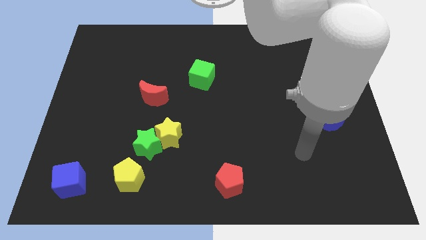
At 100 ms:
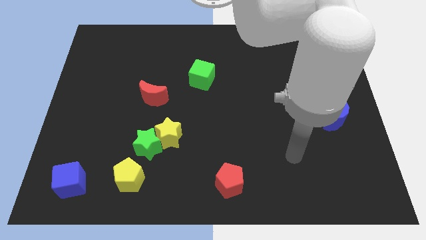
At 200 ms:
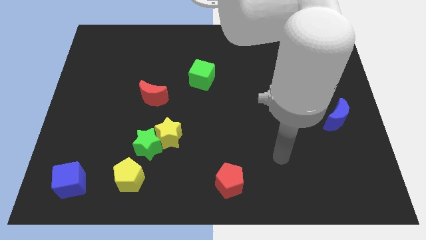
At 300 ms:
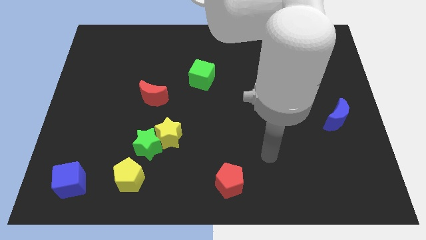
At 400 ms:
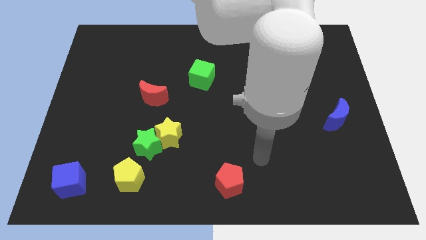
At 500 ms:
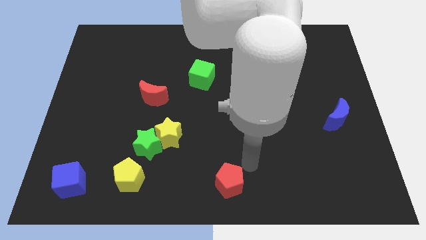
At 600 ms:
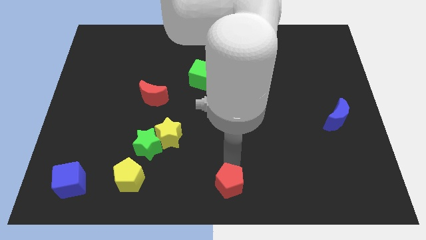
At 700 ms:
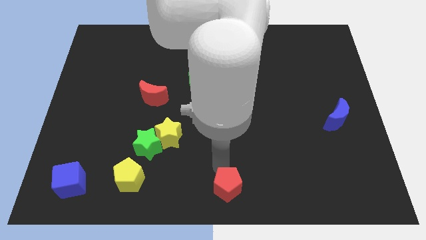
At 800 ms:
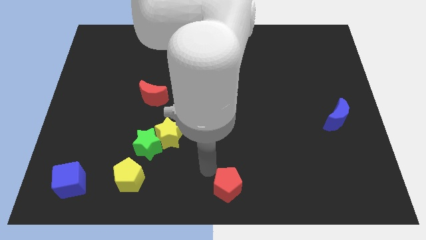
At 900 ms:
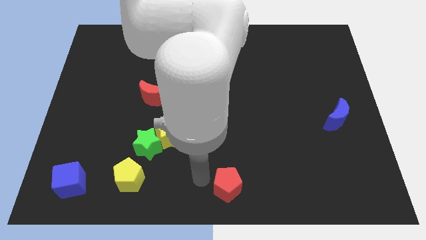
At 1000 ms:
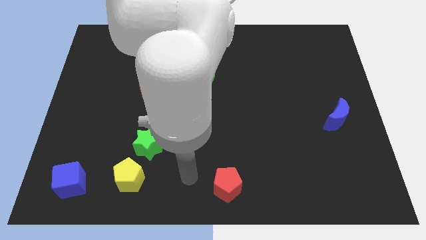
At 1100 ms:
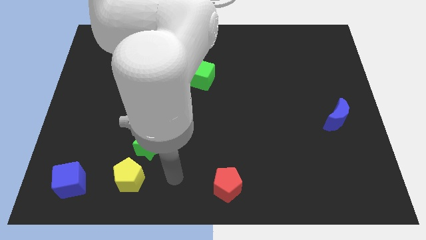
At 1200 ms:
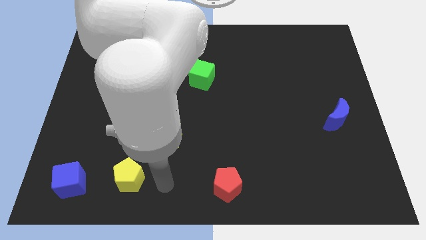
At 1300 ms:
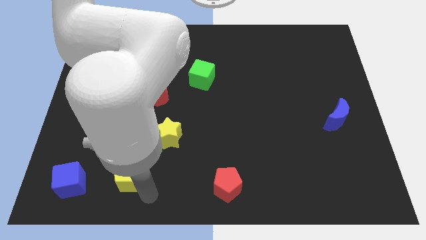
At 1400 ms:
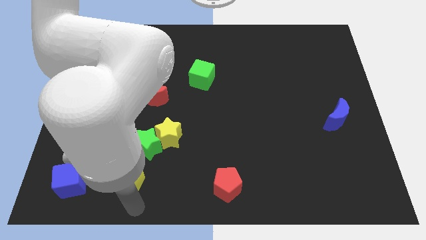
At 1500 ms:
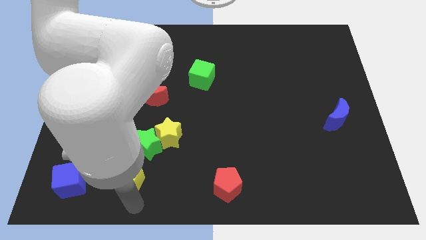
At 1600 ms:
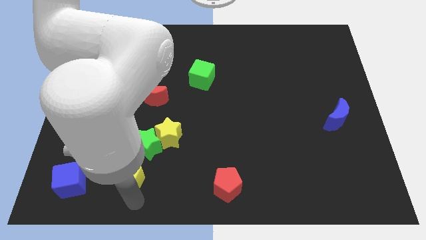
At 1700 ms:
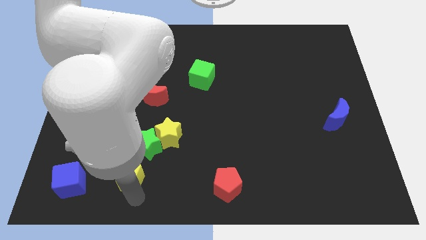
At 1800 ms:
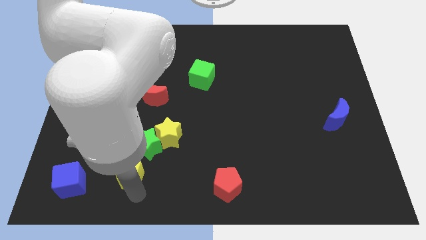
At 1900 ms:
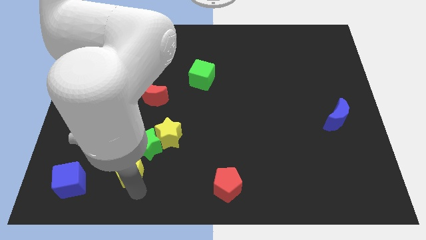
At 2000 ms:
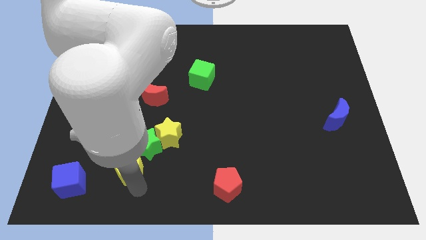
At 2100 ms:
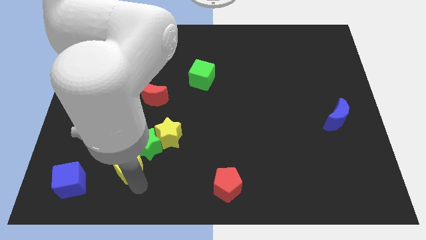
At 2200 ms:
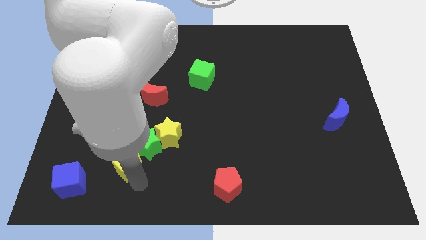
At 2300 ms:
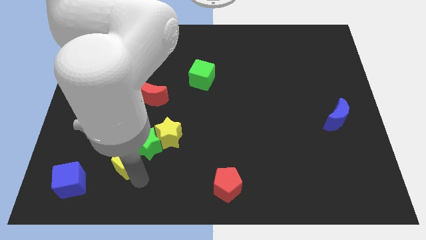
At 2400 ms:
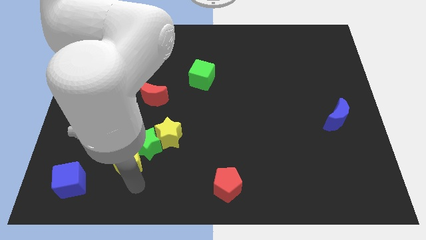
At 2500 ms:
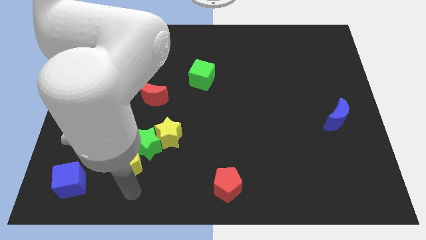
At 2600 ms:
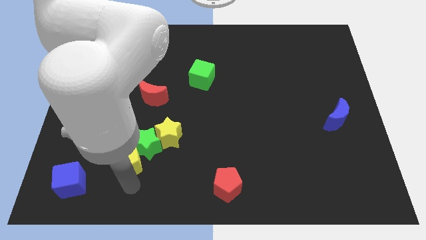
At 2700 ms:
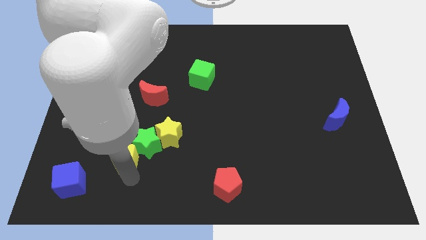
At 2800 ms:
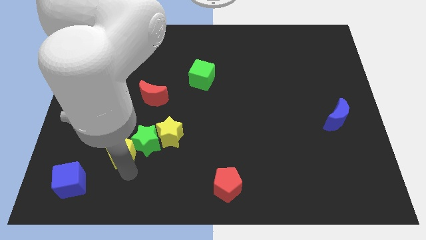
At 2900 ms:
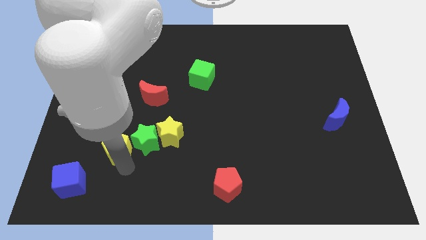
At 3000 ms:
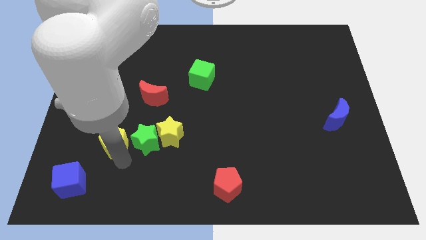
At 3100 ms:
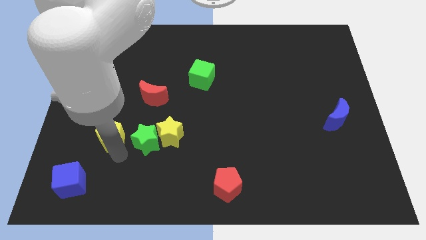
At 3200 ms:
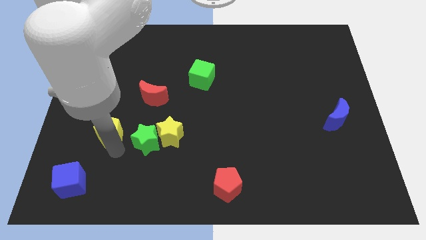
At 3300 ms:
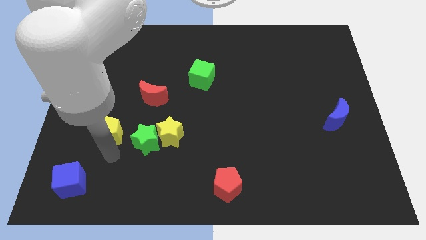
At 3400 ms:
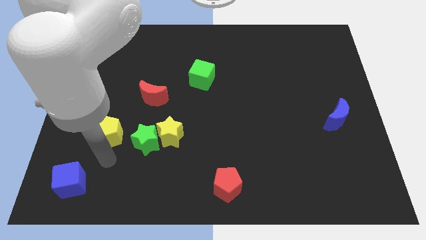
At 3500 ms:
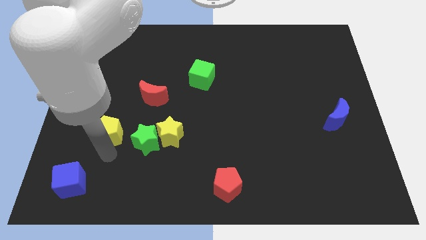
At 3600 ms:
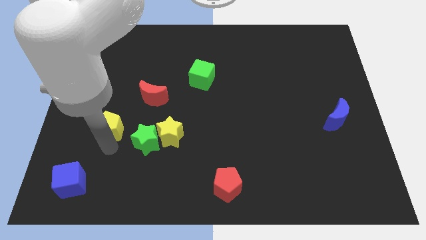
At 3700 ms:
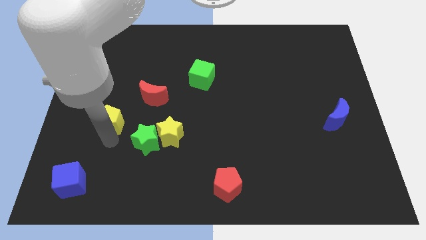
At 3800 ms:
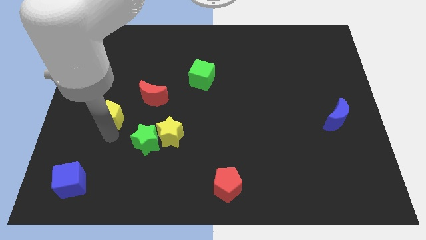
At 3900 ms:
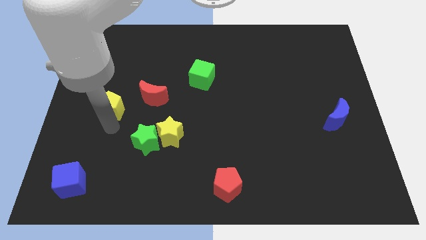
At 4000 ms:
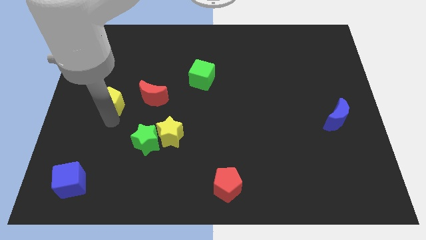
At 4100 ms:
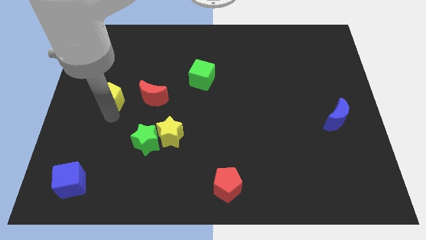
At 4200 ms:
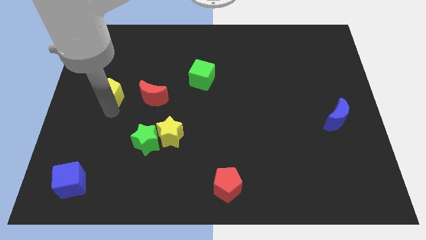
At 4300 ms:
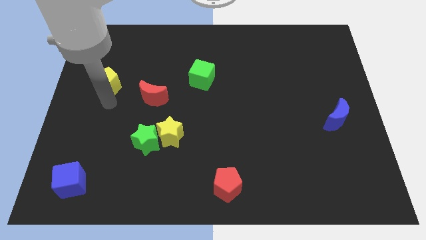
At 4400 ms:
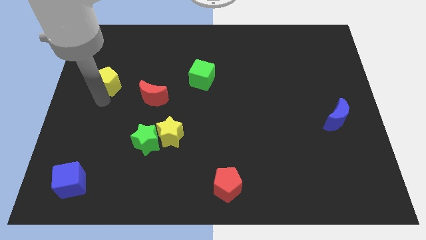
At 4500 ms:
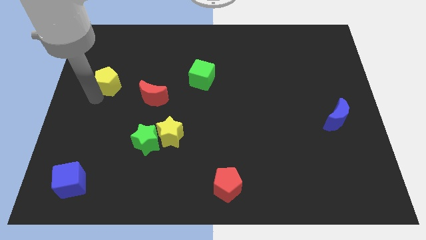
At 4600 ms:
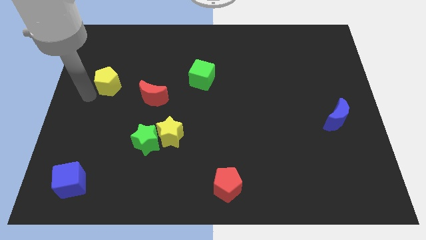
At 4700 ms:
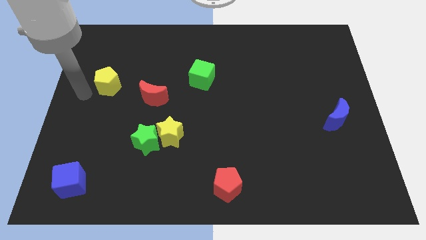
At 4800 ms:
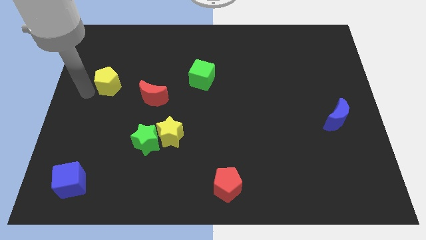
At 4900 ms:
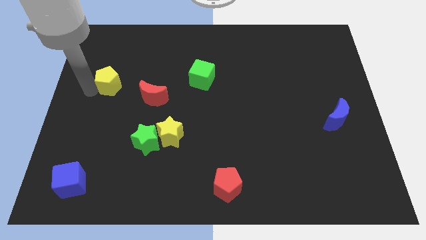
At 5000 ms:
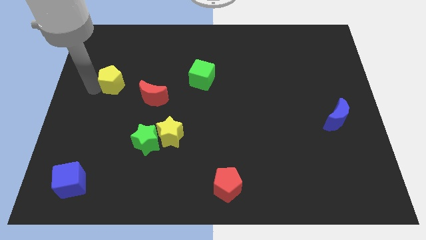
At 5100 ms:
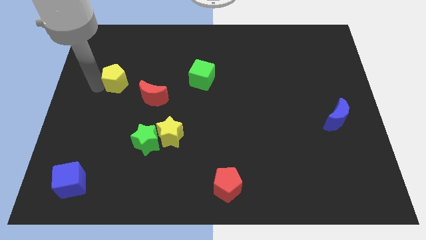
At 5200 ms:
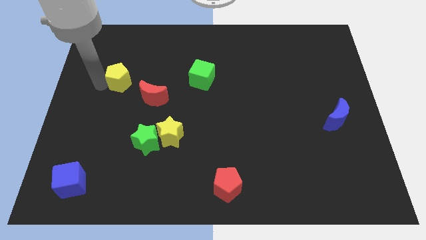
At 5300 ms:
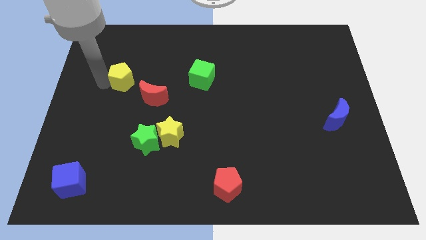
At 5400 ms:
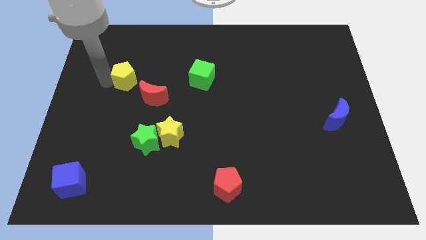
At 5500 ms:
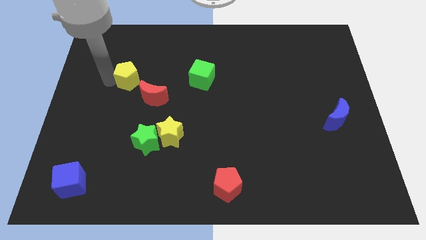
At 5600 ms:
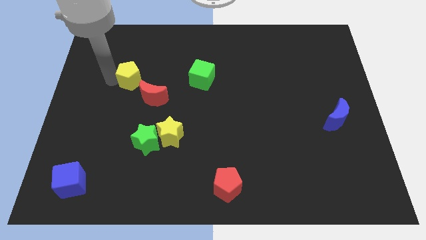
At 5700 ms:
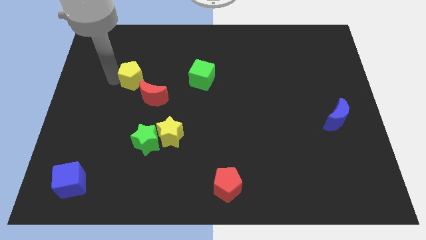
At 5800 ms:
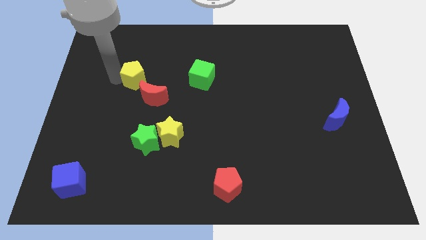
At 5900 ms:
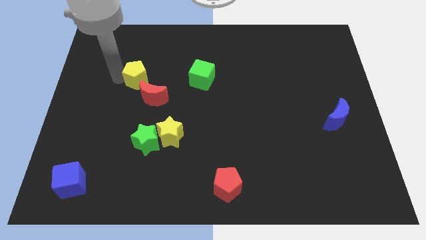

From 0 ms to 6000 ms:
put the yellow pentagon to the top side of the red moon

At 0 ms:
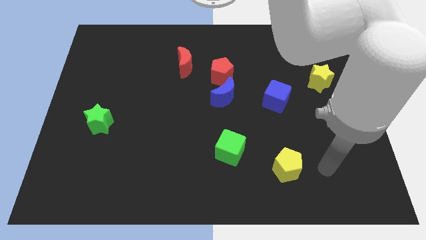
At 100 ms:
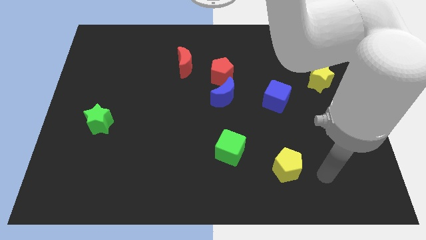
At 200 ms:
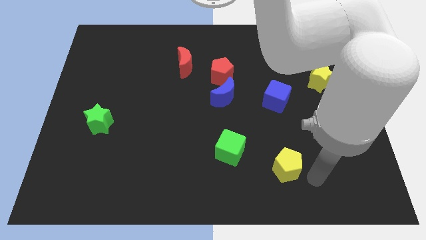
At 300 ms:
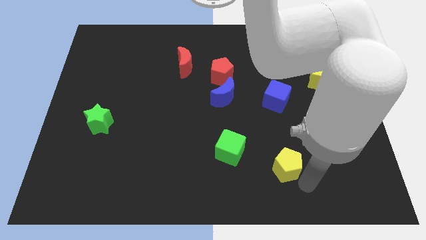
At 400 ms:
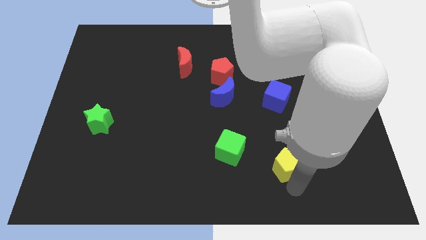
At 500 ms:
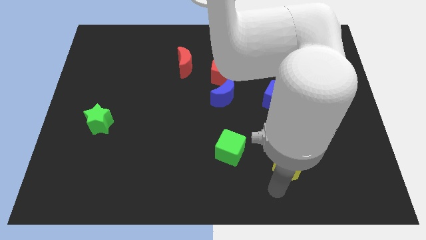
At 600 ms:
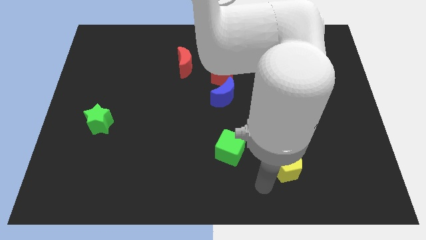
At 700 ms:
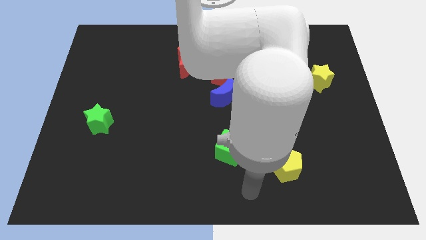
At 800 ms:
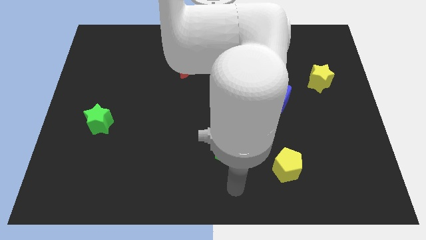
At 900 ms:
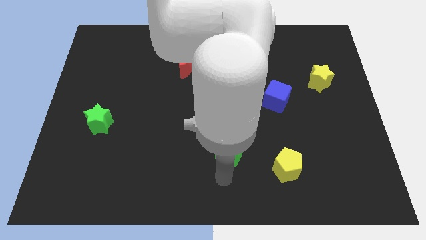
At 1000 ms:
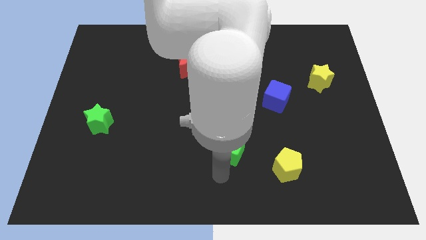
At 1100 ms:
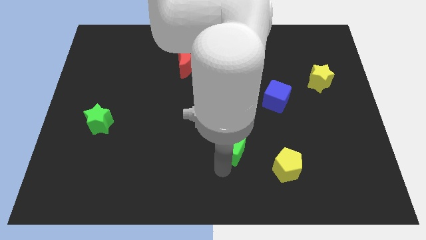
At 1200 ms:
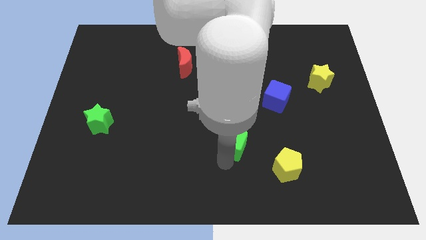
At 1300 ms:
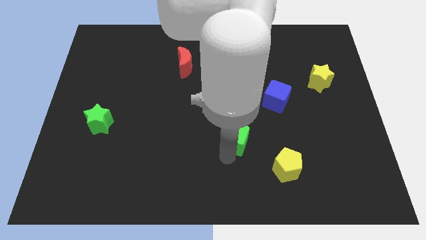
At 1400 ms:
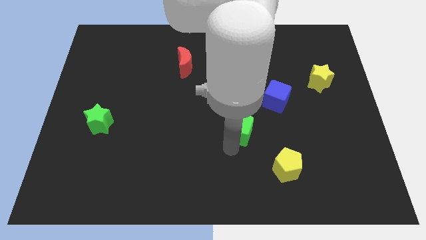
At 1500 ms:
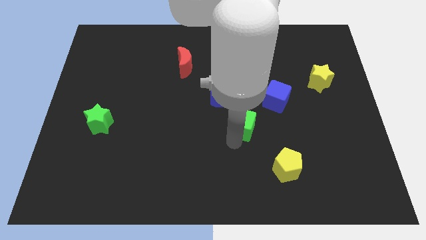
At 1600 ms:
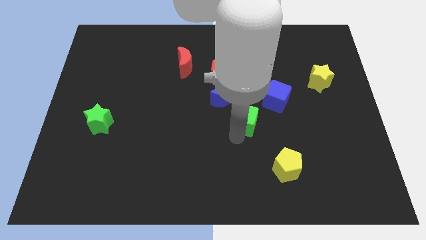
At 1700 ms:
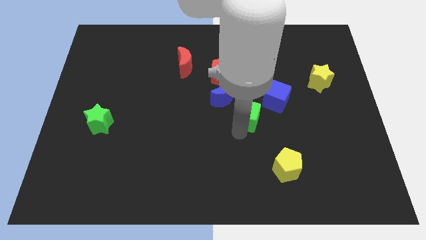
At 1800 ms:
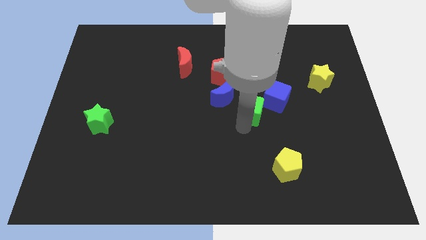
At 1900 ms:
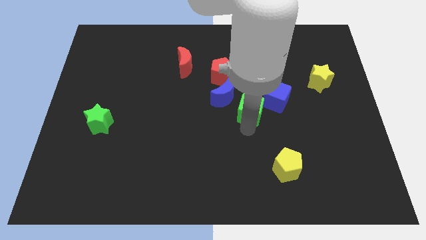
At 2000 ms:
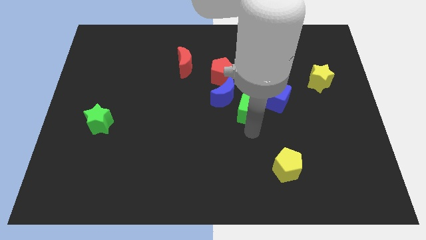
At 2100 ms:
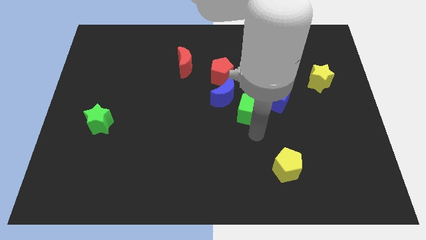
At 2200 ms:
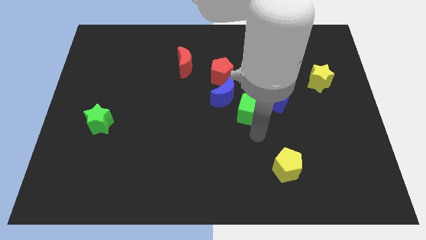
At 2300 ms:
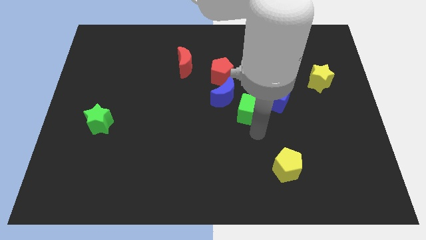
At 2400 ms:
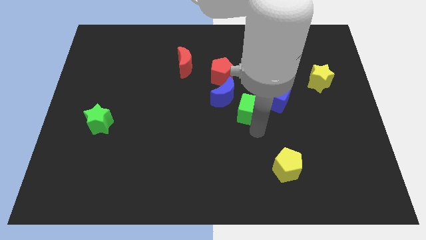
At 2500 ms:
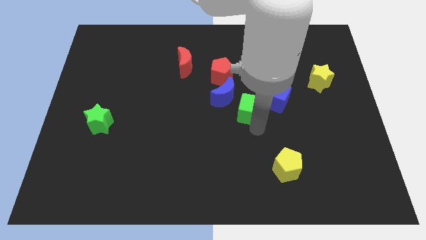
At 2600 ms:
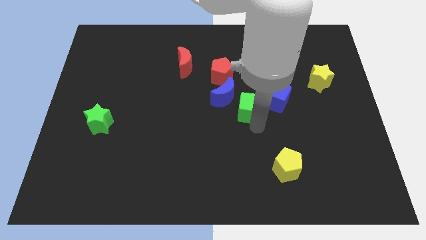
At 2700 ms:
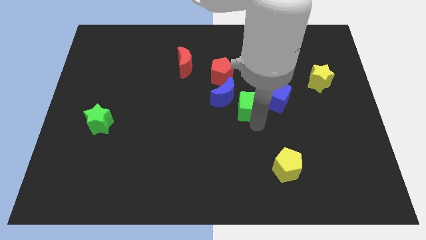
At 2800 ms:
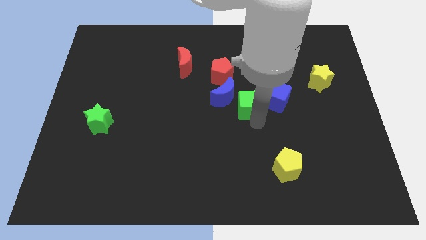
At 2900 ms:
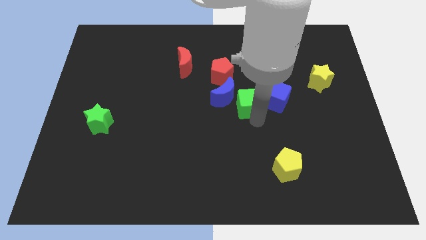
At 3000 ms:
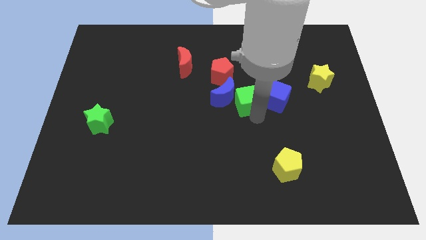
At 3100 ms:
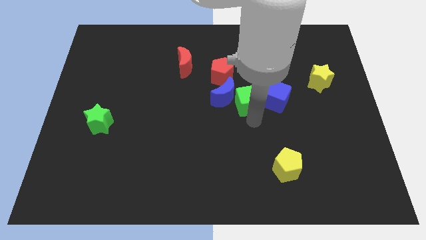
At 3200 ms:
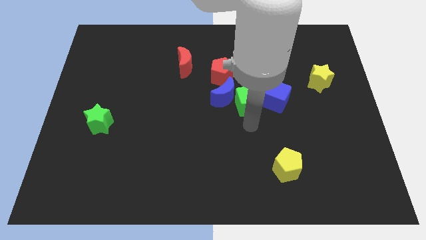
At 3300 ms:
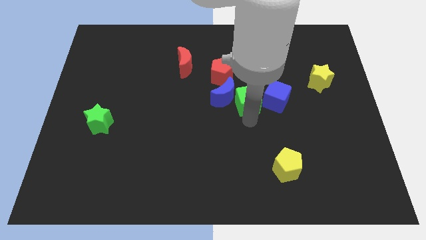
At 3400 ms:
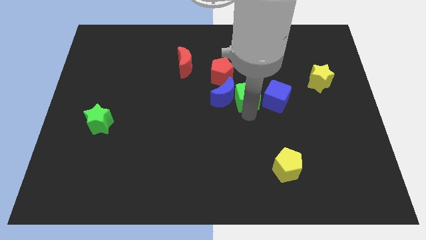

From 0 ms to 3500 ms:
push the green cube to the top right side of the blue moon
